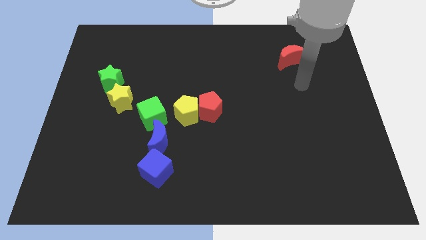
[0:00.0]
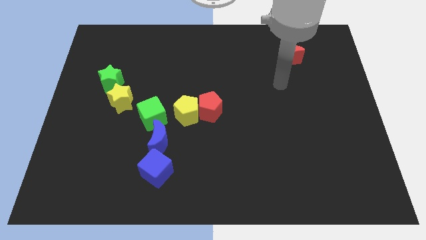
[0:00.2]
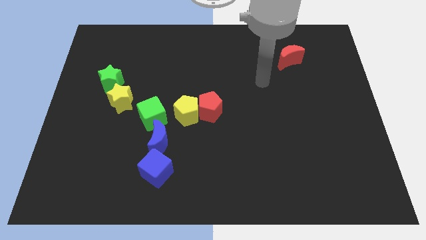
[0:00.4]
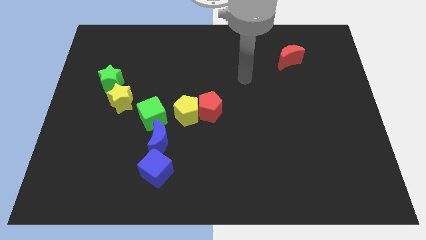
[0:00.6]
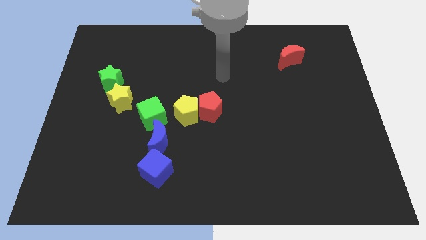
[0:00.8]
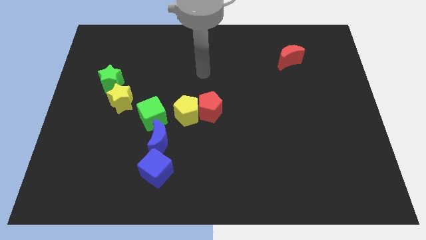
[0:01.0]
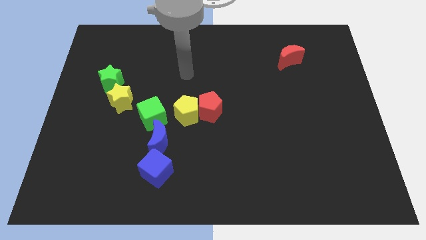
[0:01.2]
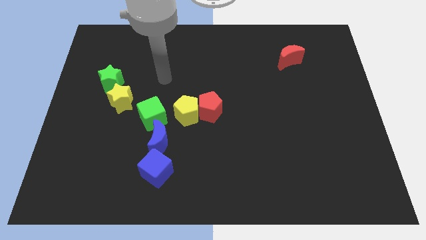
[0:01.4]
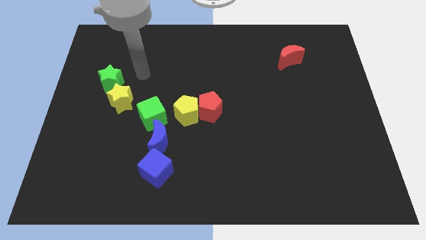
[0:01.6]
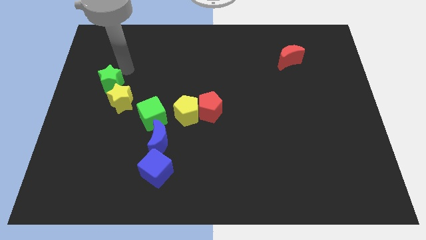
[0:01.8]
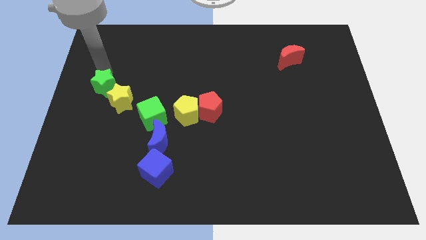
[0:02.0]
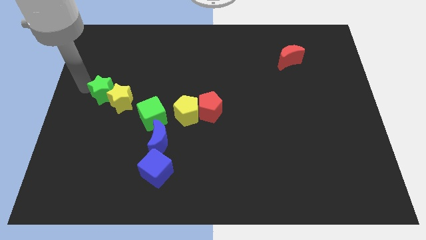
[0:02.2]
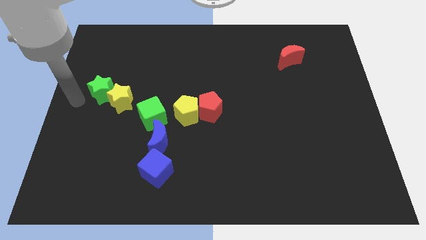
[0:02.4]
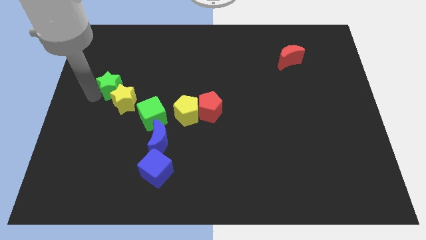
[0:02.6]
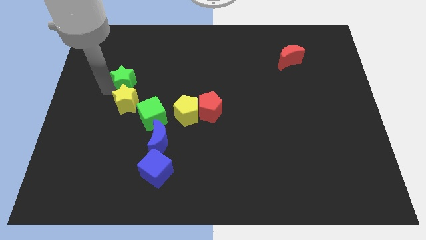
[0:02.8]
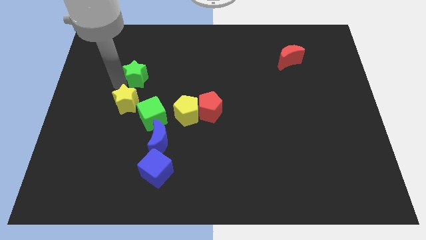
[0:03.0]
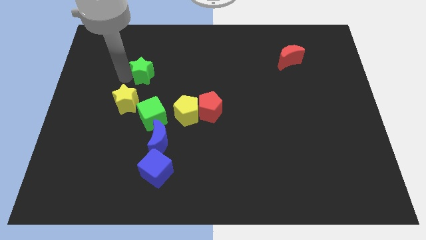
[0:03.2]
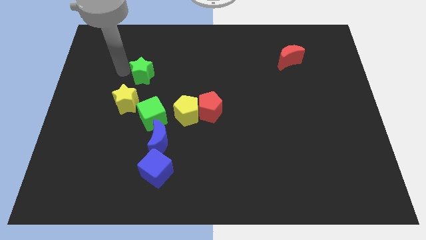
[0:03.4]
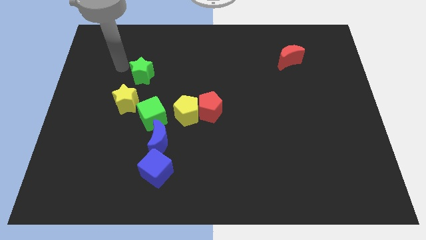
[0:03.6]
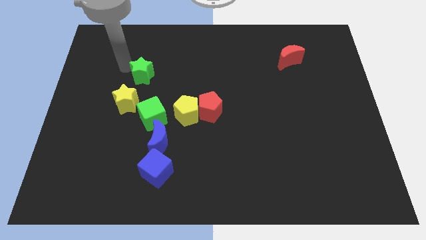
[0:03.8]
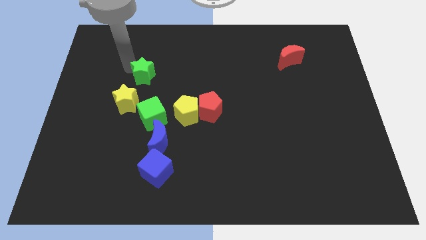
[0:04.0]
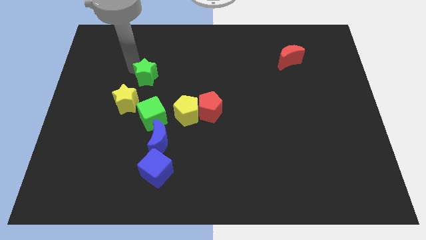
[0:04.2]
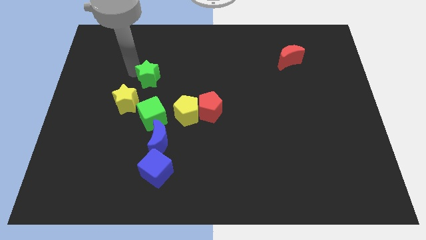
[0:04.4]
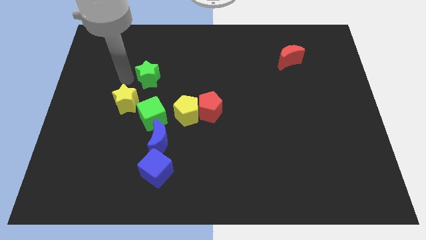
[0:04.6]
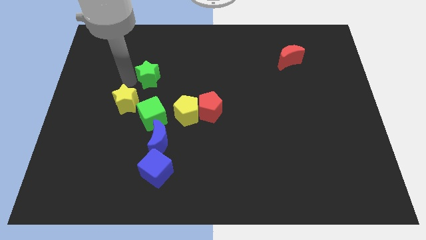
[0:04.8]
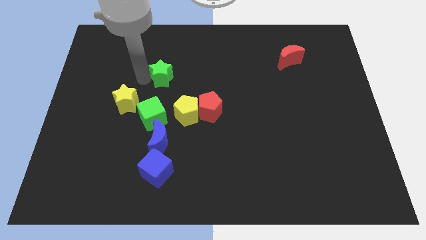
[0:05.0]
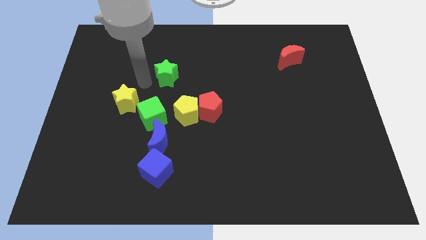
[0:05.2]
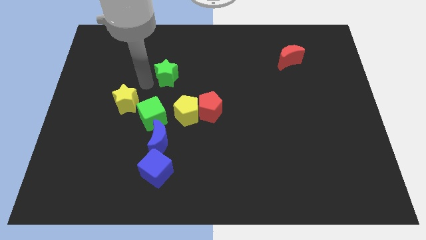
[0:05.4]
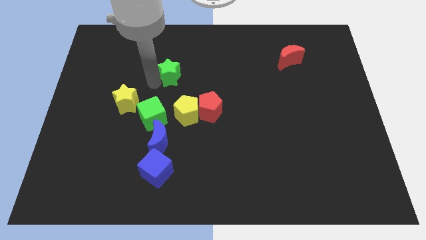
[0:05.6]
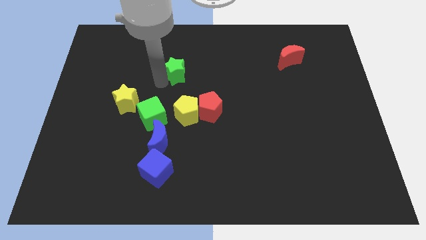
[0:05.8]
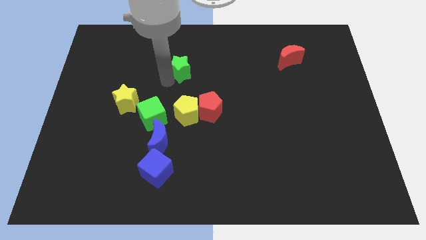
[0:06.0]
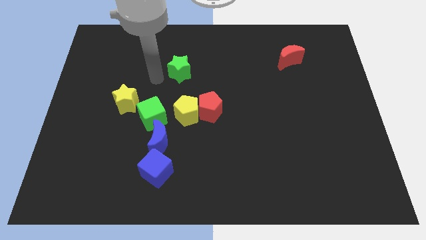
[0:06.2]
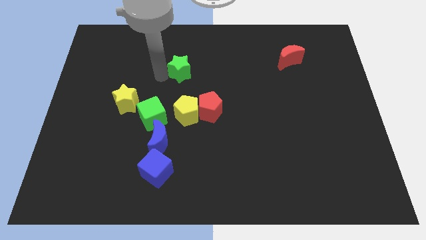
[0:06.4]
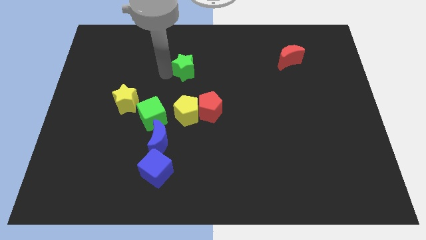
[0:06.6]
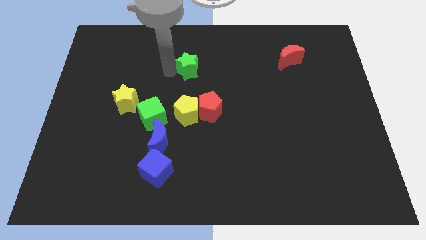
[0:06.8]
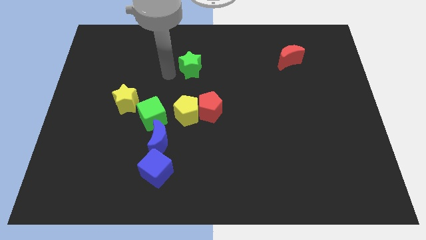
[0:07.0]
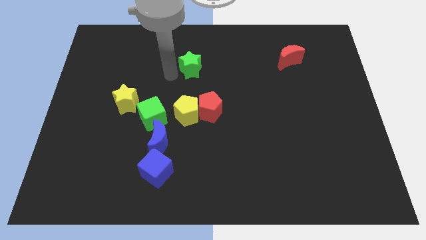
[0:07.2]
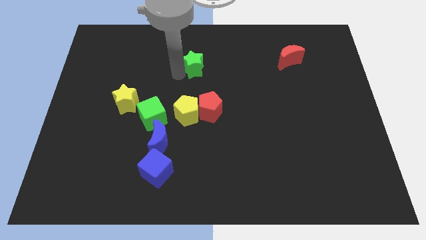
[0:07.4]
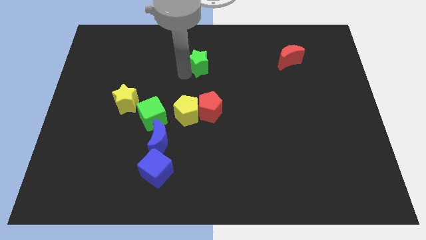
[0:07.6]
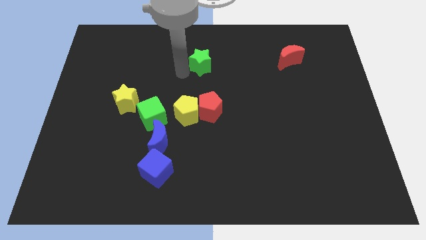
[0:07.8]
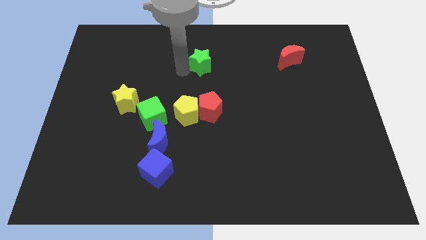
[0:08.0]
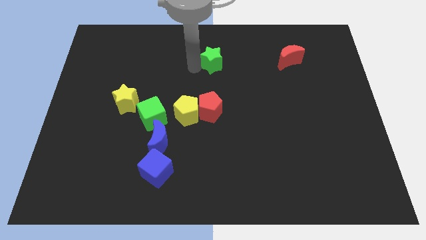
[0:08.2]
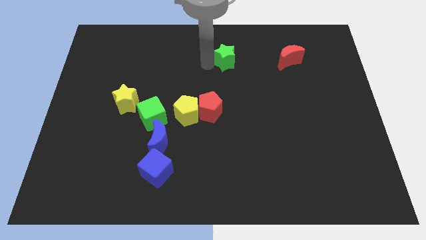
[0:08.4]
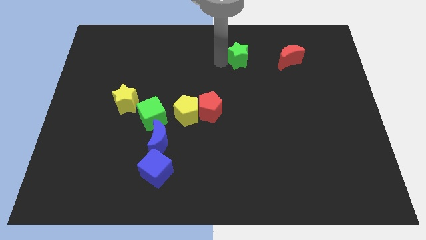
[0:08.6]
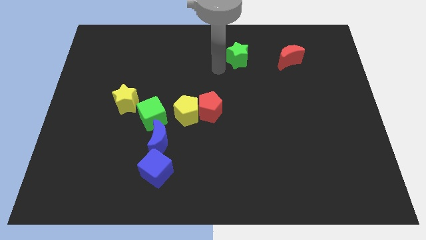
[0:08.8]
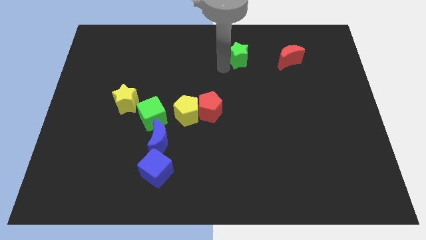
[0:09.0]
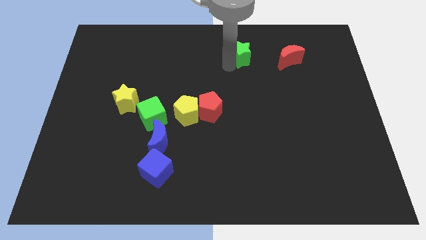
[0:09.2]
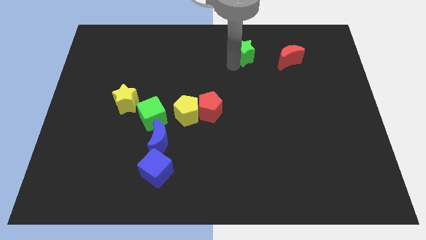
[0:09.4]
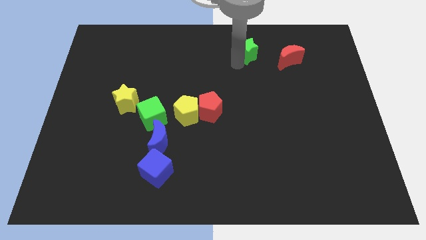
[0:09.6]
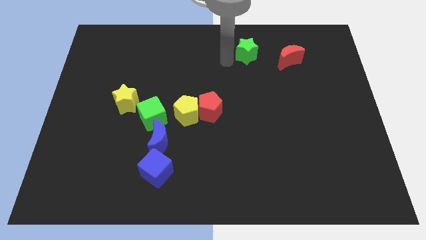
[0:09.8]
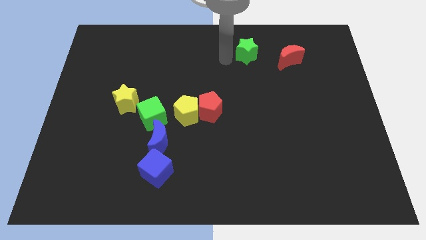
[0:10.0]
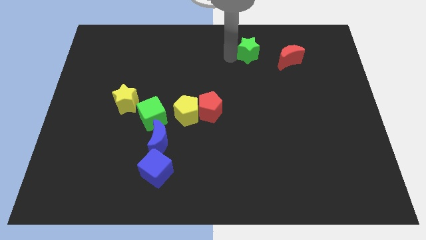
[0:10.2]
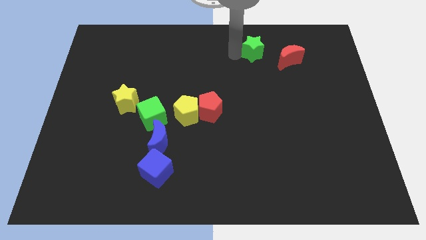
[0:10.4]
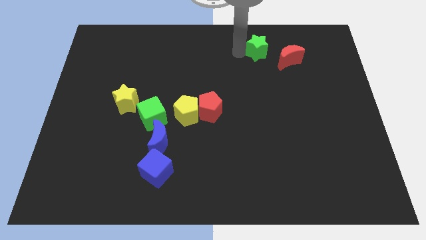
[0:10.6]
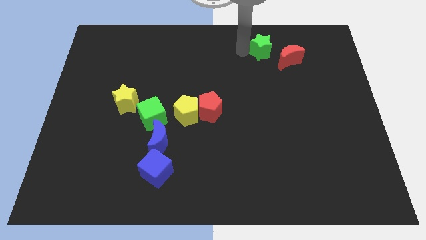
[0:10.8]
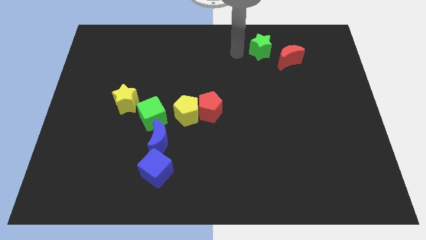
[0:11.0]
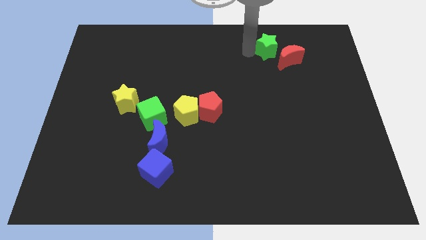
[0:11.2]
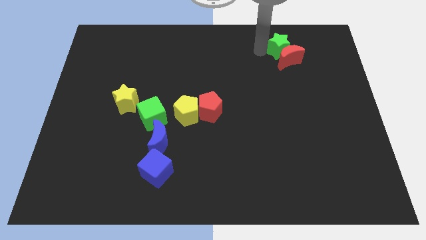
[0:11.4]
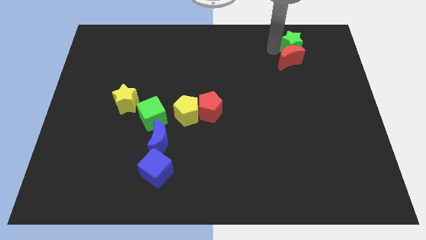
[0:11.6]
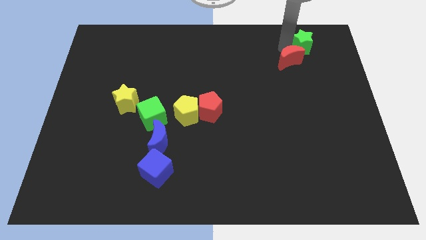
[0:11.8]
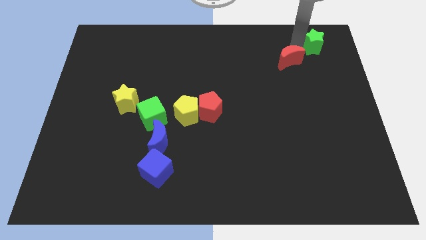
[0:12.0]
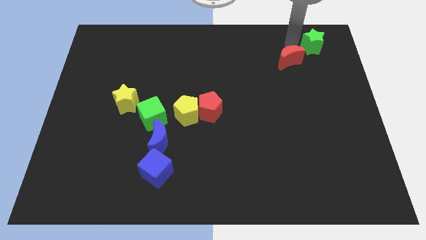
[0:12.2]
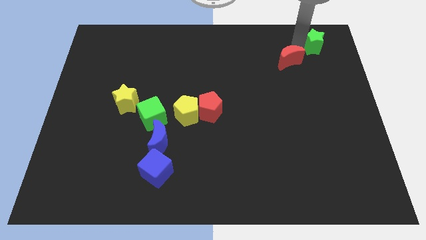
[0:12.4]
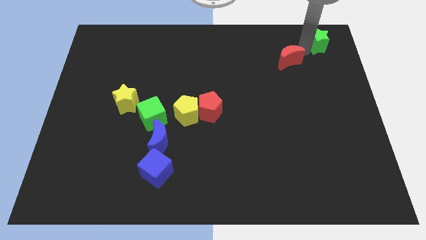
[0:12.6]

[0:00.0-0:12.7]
put the green star to the top right of the board
